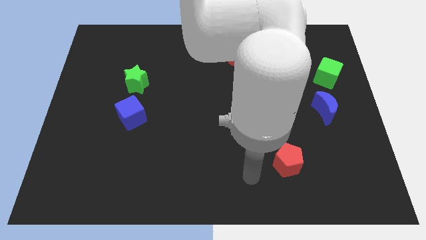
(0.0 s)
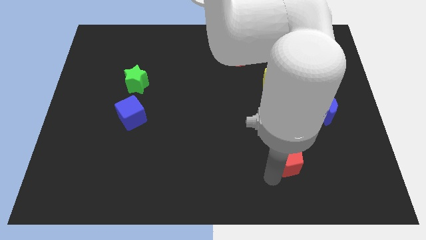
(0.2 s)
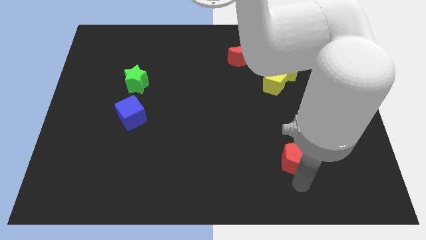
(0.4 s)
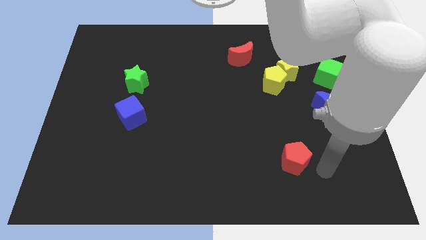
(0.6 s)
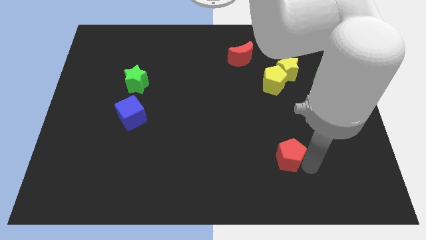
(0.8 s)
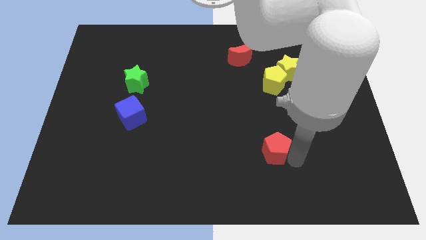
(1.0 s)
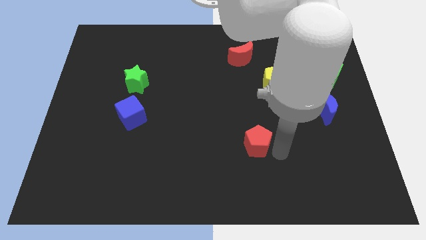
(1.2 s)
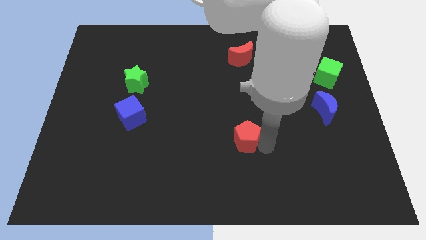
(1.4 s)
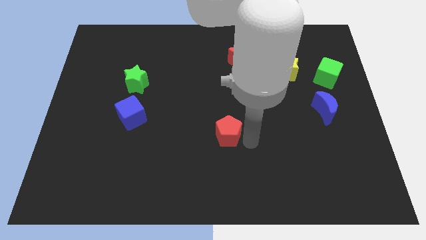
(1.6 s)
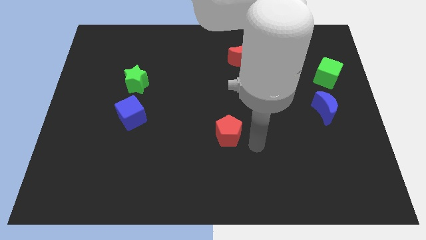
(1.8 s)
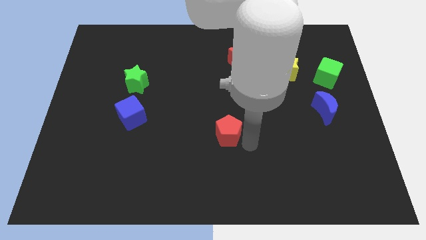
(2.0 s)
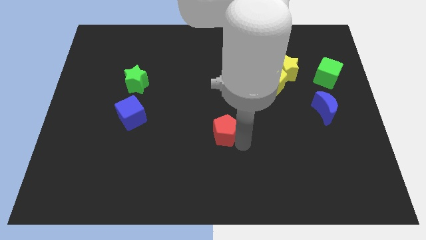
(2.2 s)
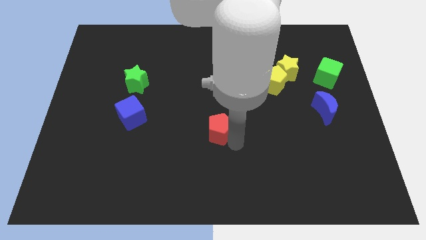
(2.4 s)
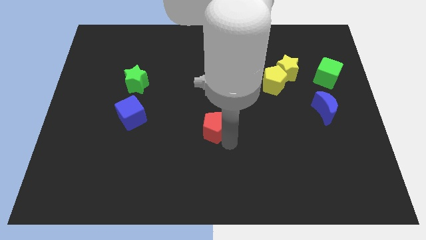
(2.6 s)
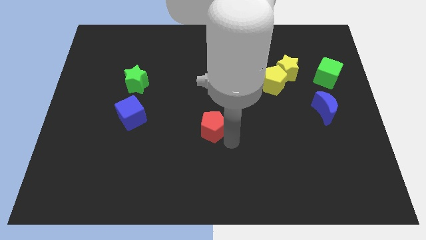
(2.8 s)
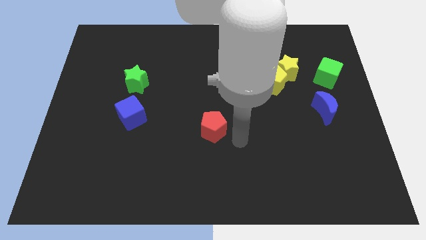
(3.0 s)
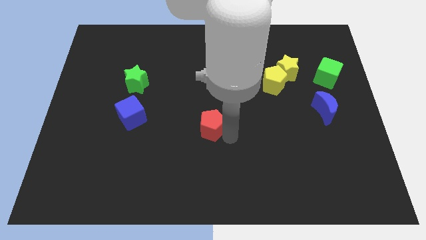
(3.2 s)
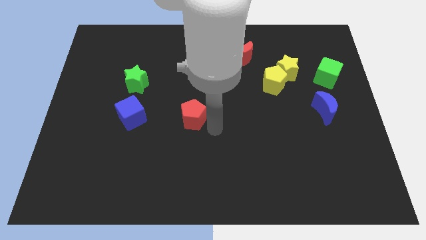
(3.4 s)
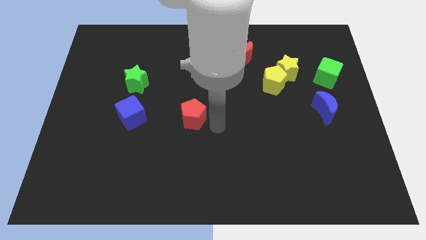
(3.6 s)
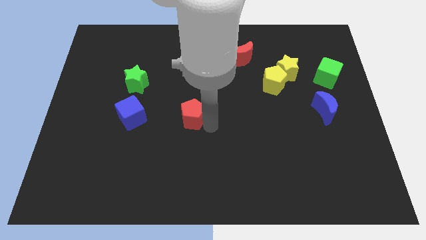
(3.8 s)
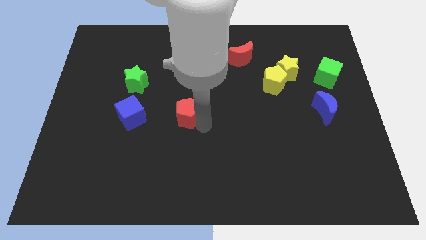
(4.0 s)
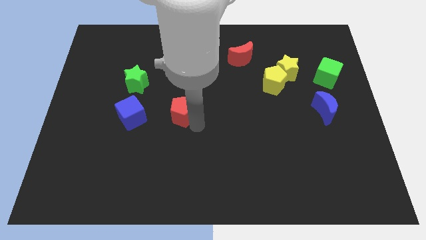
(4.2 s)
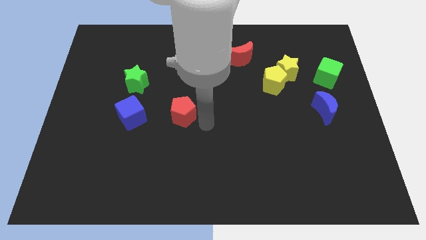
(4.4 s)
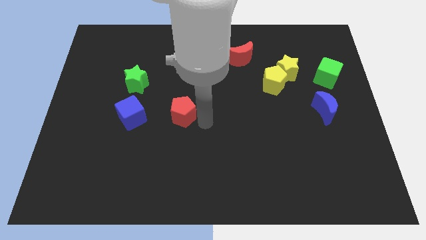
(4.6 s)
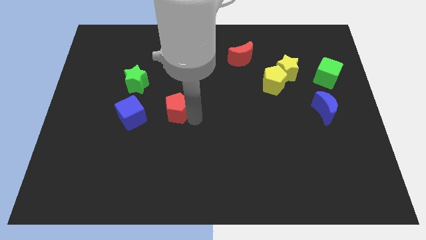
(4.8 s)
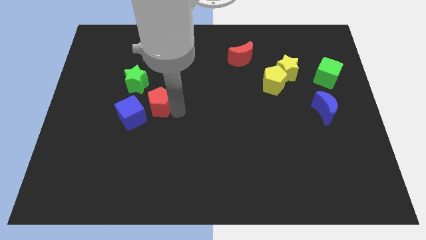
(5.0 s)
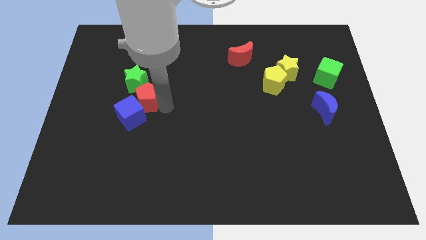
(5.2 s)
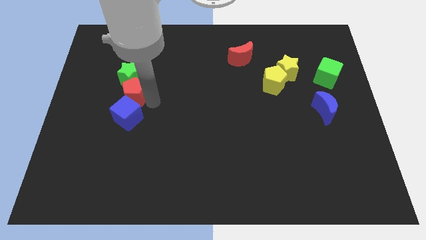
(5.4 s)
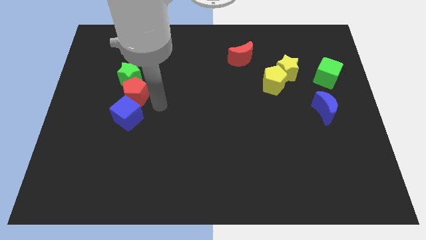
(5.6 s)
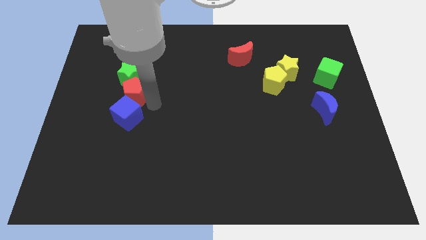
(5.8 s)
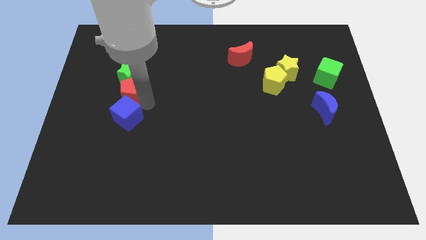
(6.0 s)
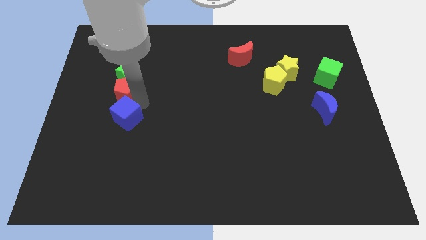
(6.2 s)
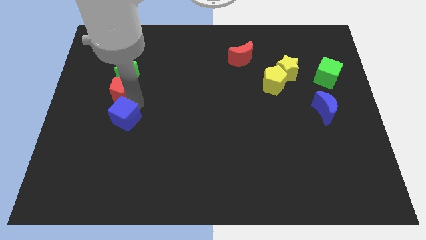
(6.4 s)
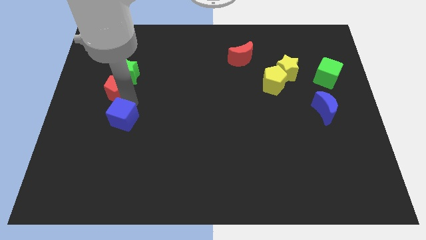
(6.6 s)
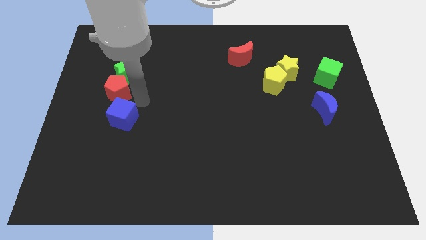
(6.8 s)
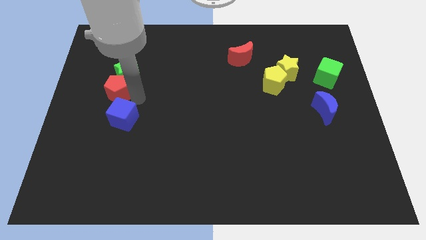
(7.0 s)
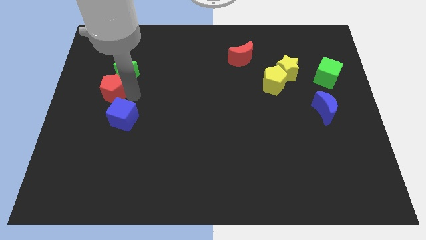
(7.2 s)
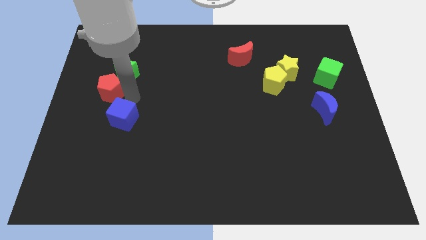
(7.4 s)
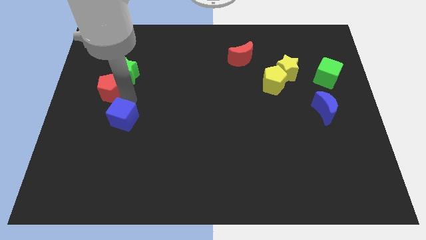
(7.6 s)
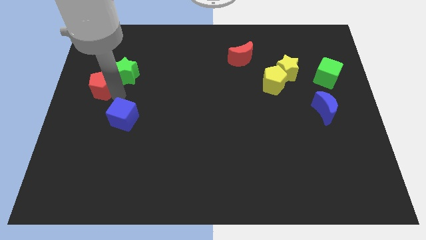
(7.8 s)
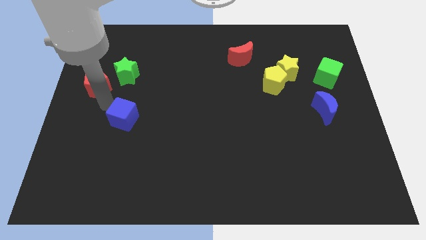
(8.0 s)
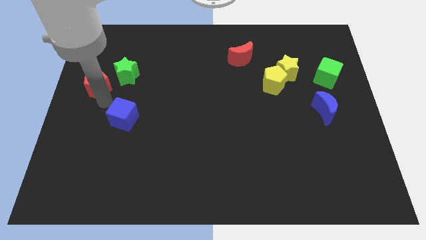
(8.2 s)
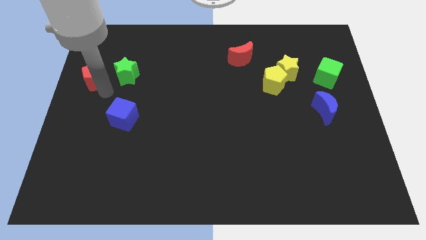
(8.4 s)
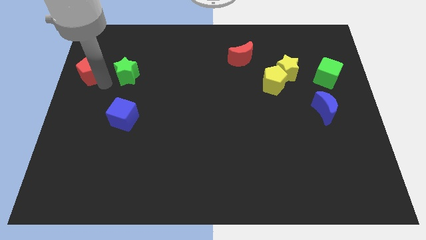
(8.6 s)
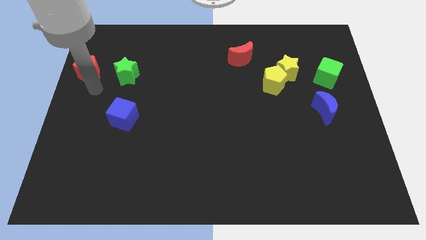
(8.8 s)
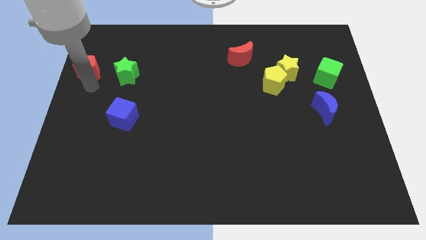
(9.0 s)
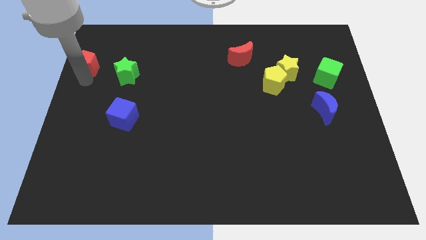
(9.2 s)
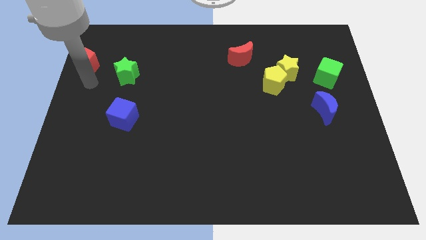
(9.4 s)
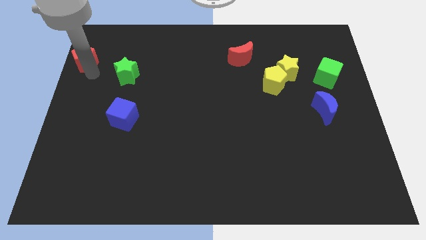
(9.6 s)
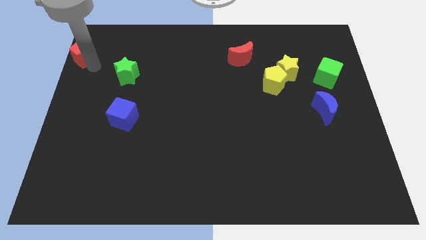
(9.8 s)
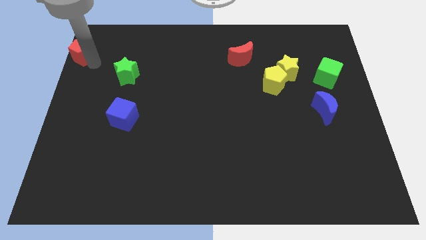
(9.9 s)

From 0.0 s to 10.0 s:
put the red pentagon to the upper left corner

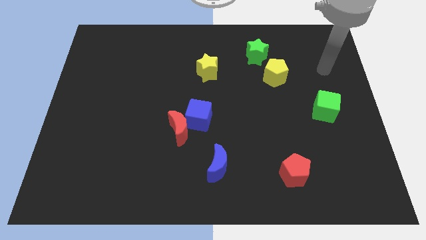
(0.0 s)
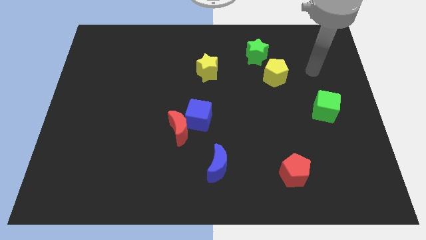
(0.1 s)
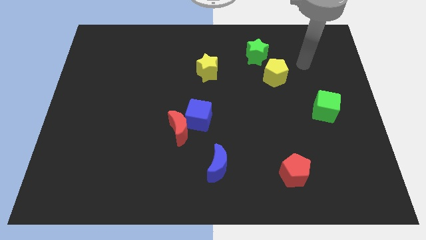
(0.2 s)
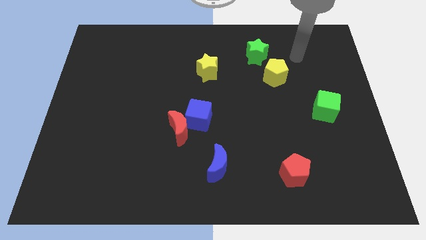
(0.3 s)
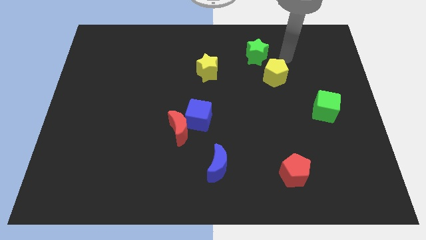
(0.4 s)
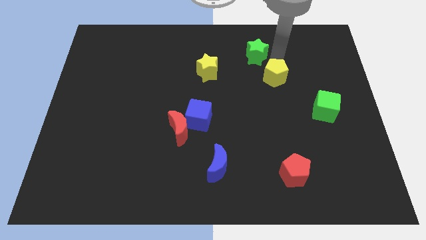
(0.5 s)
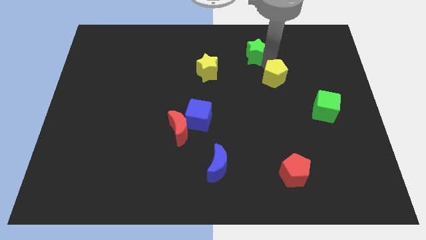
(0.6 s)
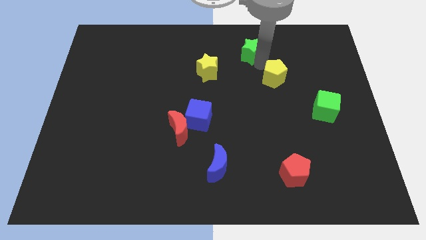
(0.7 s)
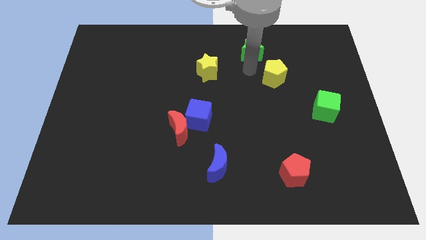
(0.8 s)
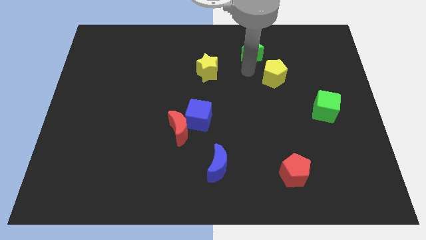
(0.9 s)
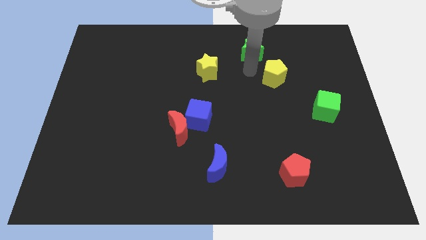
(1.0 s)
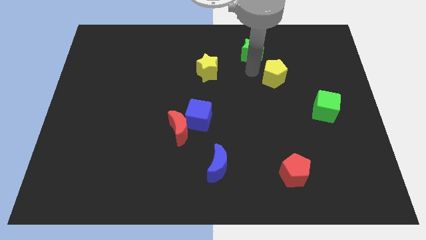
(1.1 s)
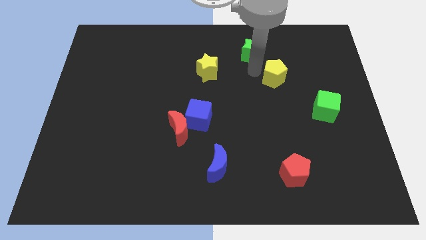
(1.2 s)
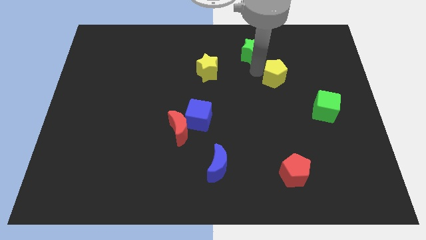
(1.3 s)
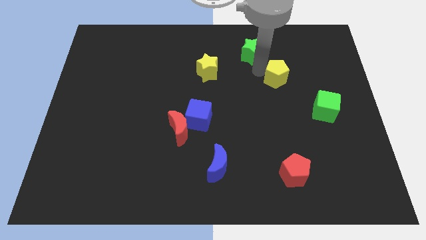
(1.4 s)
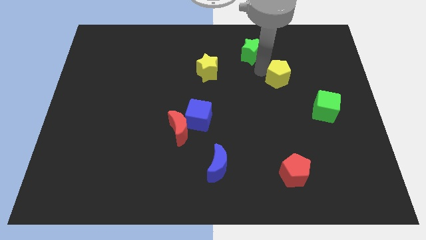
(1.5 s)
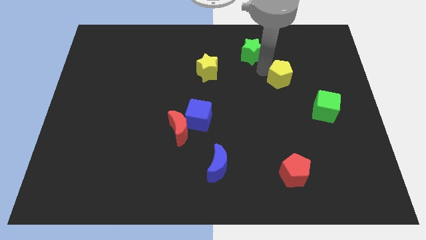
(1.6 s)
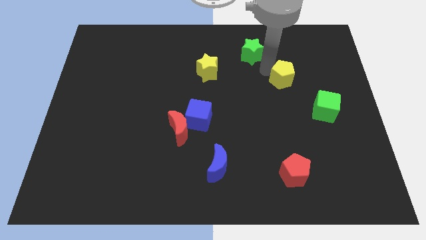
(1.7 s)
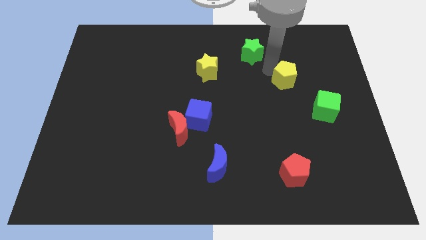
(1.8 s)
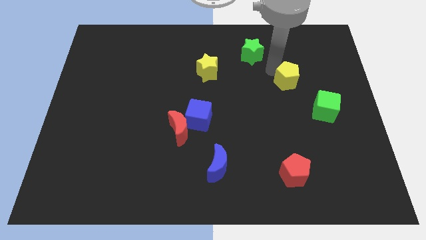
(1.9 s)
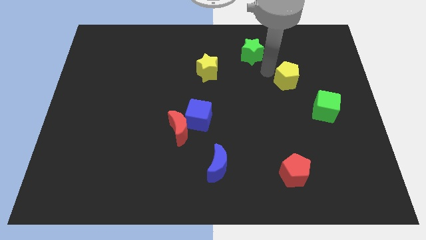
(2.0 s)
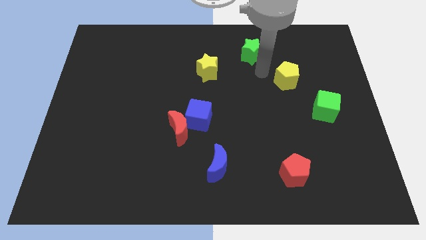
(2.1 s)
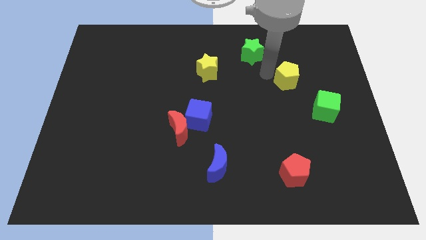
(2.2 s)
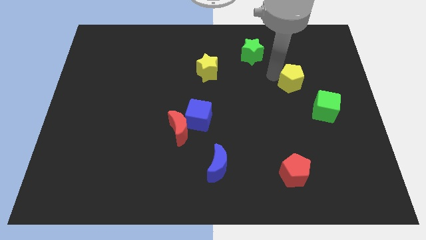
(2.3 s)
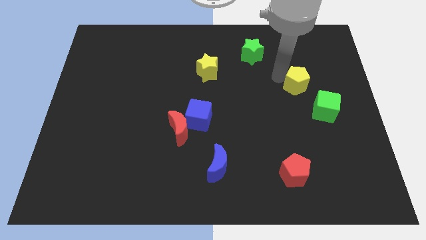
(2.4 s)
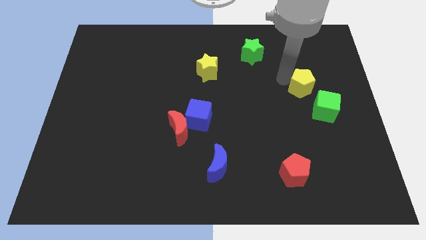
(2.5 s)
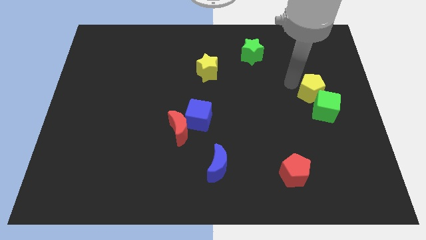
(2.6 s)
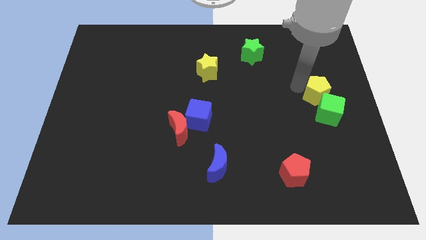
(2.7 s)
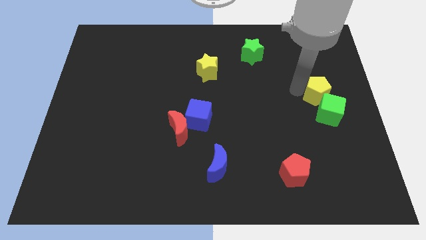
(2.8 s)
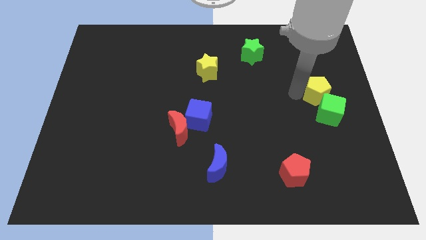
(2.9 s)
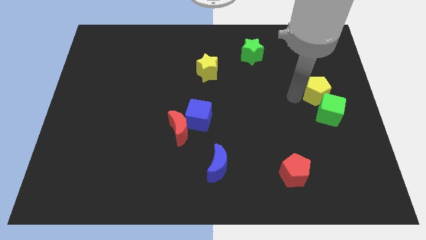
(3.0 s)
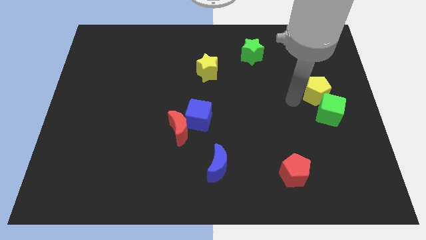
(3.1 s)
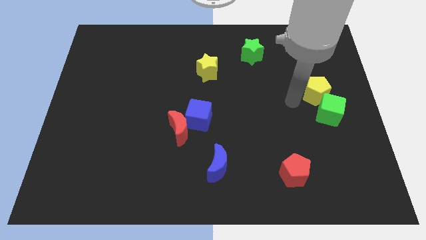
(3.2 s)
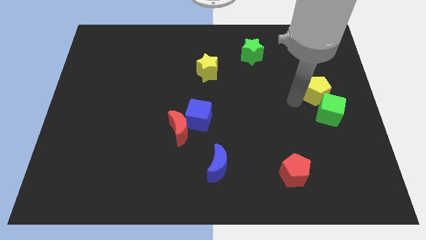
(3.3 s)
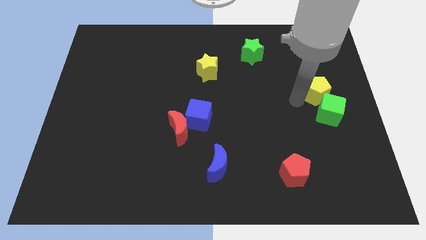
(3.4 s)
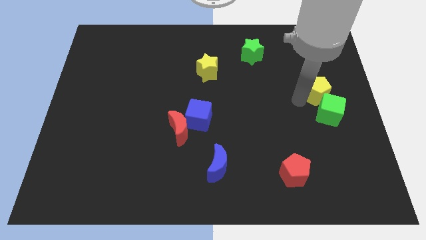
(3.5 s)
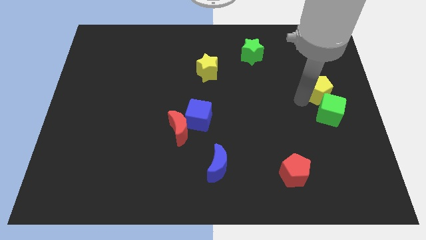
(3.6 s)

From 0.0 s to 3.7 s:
put the yellow pentagon to the right side of the board
